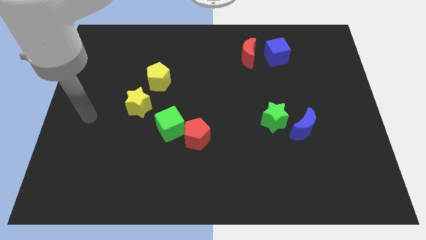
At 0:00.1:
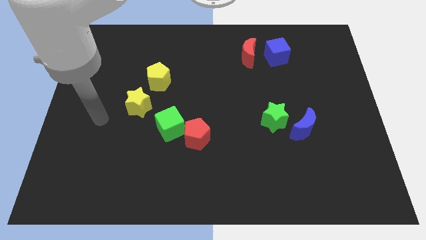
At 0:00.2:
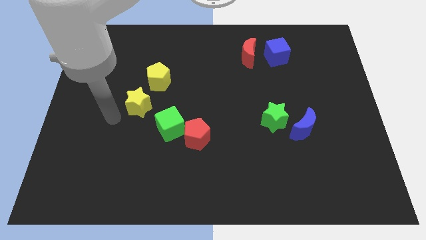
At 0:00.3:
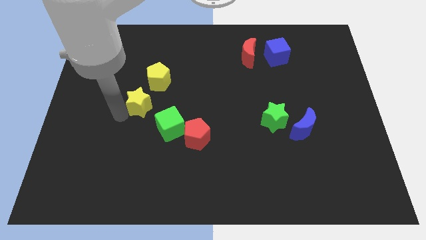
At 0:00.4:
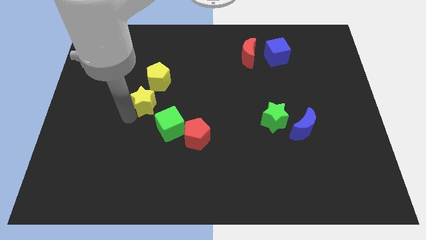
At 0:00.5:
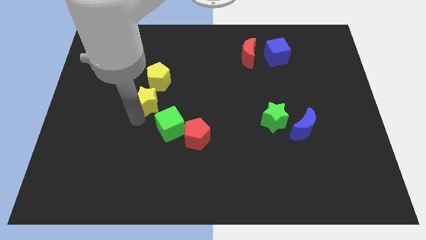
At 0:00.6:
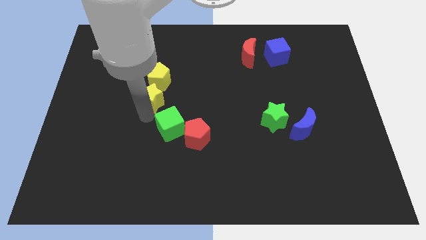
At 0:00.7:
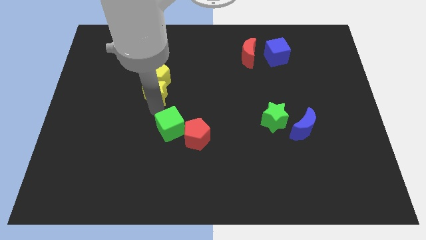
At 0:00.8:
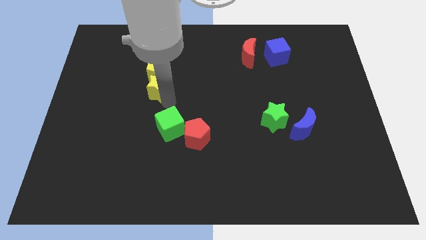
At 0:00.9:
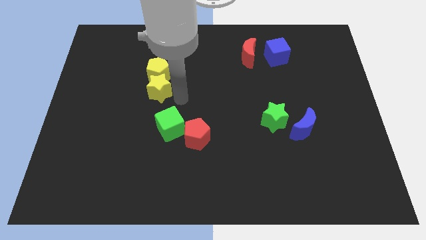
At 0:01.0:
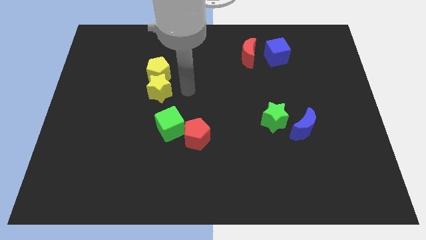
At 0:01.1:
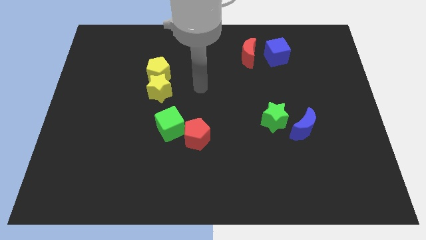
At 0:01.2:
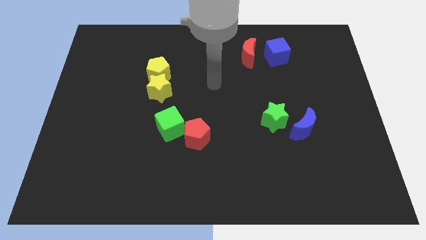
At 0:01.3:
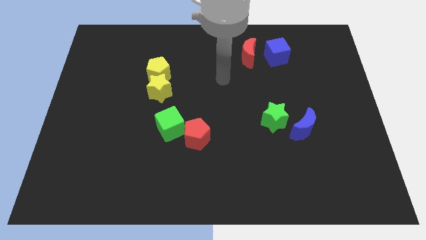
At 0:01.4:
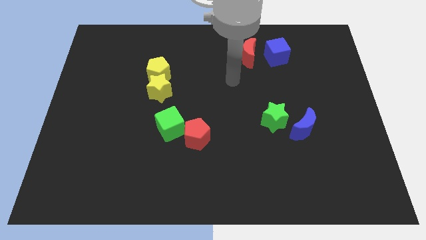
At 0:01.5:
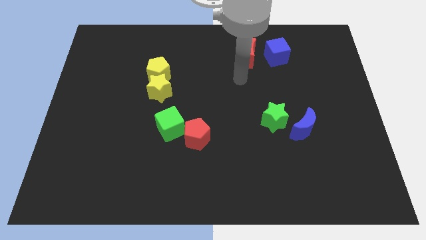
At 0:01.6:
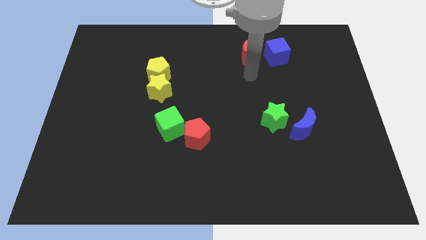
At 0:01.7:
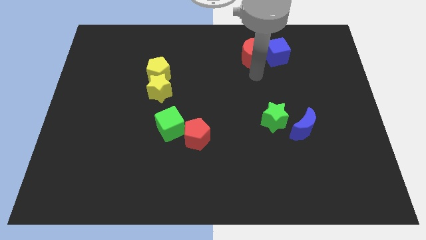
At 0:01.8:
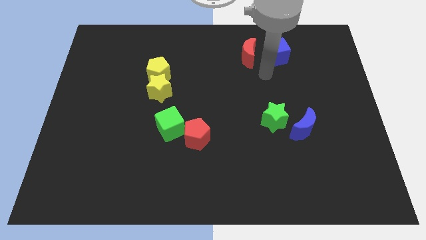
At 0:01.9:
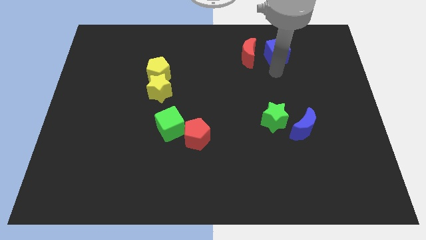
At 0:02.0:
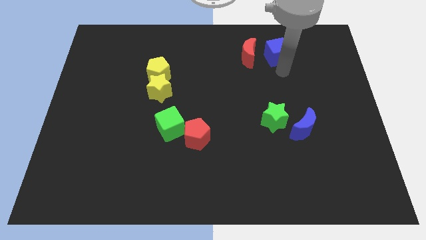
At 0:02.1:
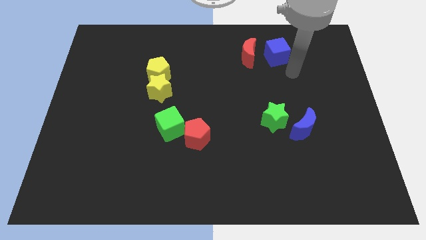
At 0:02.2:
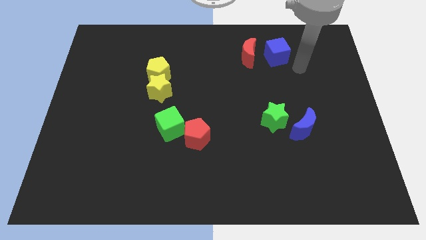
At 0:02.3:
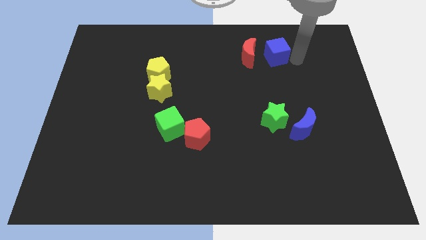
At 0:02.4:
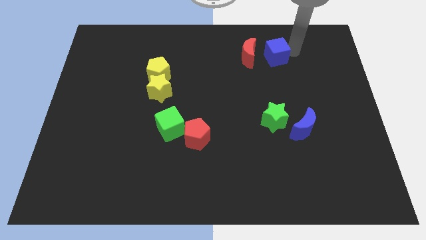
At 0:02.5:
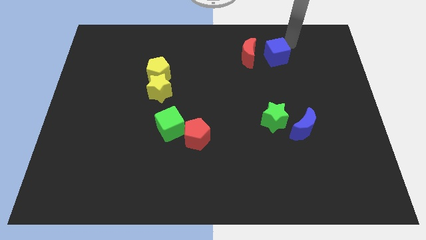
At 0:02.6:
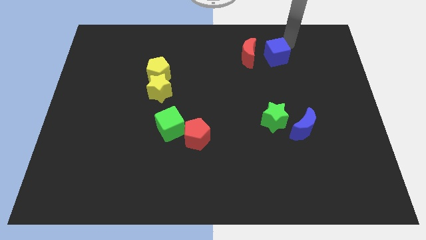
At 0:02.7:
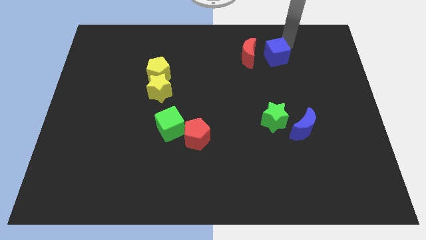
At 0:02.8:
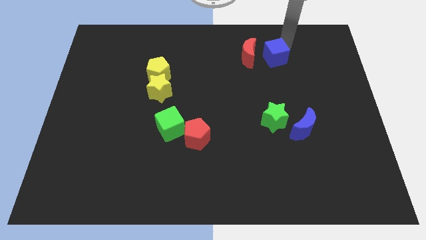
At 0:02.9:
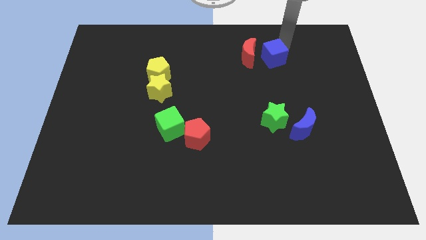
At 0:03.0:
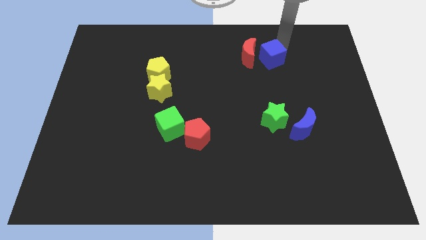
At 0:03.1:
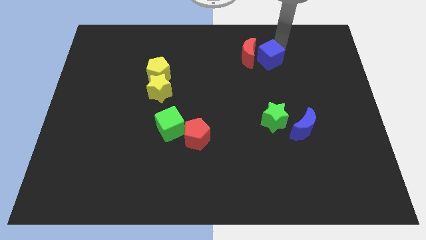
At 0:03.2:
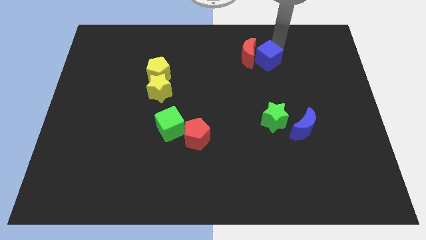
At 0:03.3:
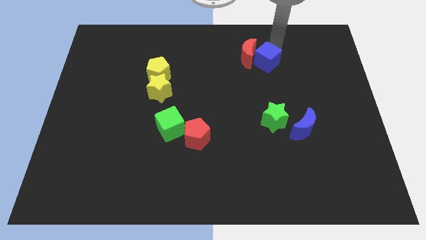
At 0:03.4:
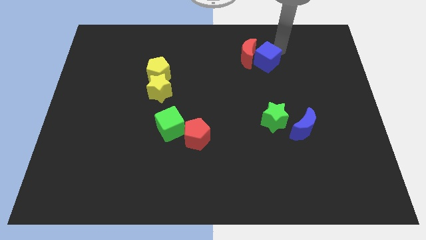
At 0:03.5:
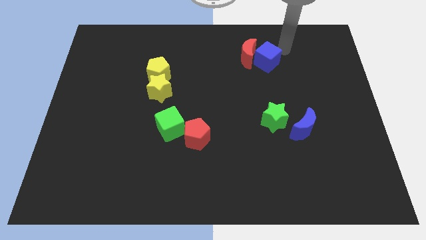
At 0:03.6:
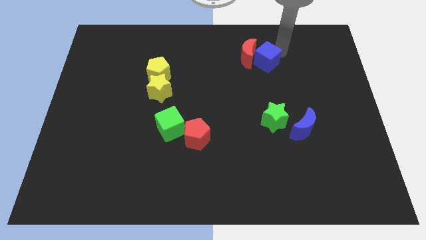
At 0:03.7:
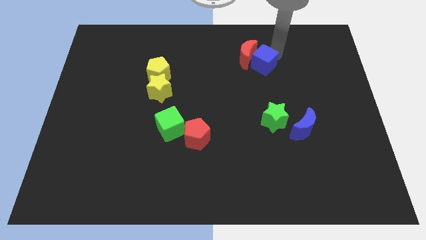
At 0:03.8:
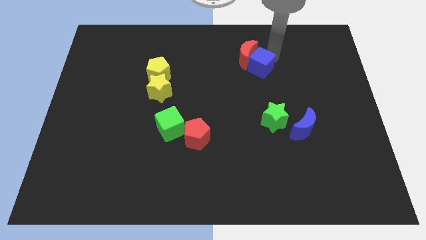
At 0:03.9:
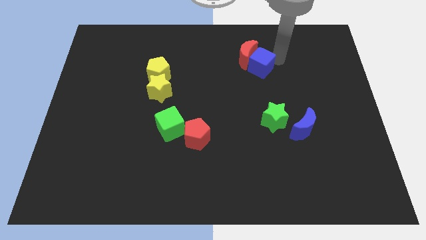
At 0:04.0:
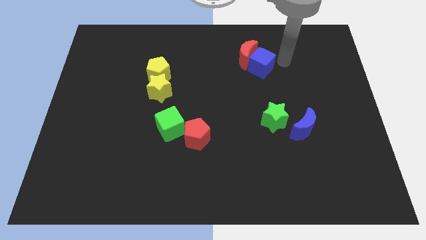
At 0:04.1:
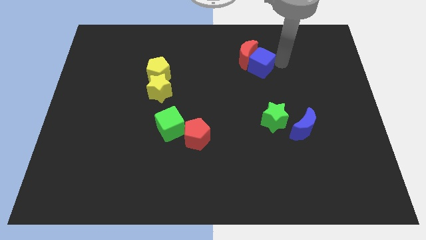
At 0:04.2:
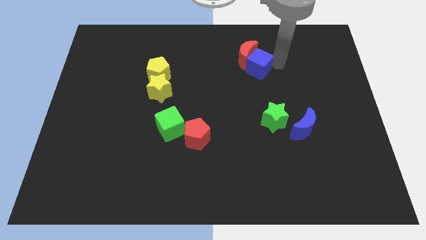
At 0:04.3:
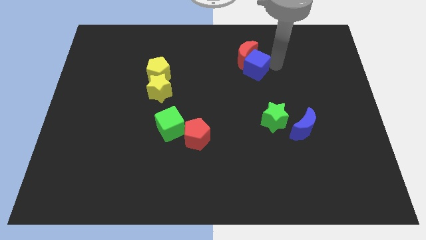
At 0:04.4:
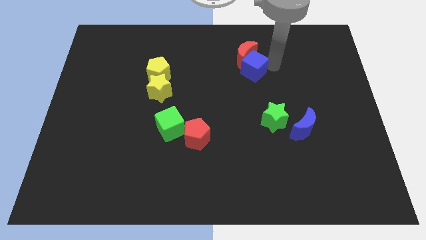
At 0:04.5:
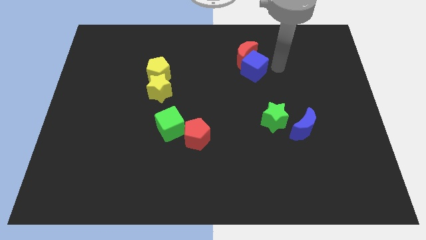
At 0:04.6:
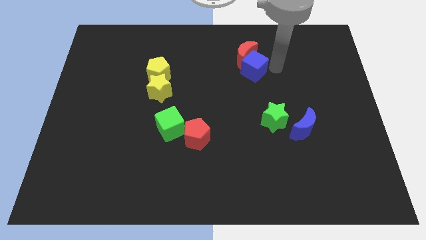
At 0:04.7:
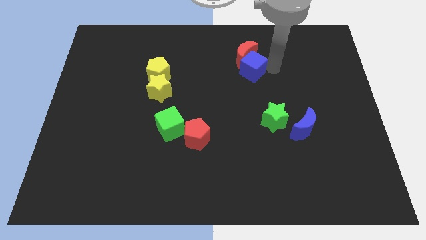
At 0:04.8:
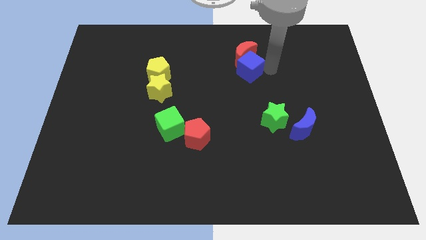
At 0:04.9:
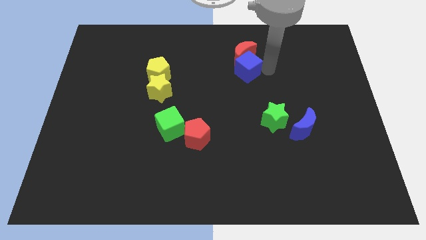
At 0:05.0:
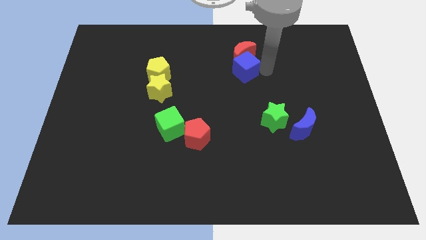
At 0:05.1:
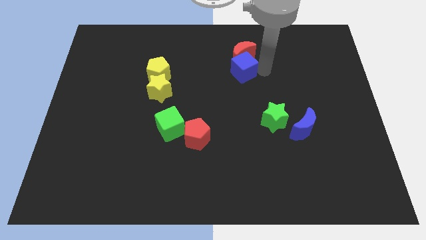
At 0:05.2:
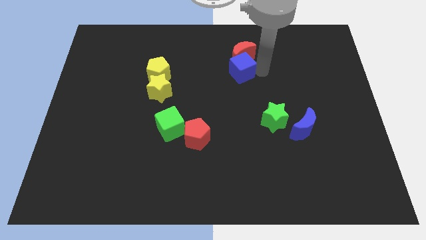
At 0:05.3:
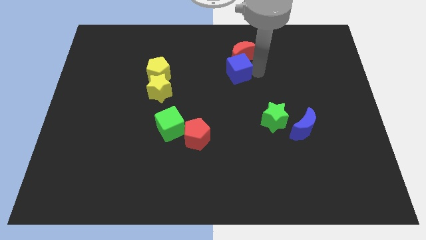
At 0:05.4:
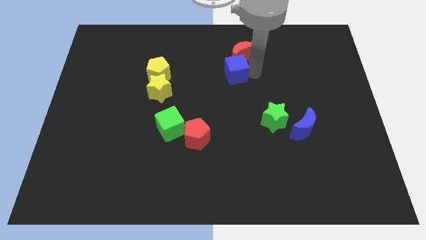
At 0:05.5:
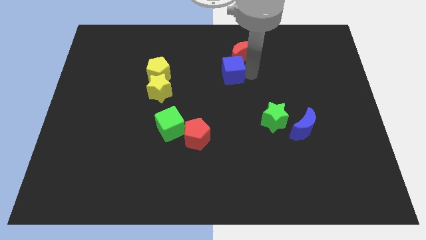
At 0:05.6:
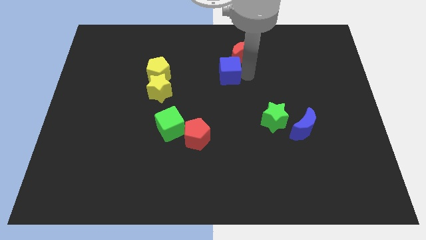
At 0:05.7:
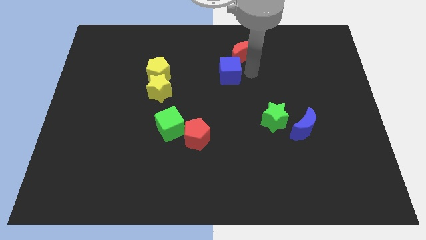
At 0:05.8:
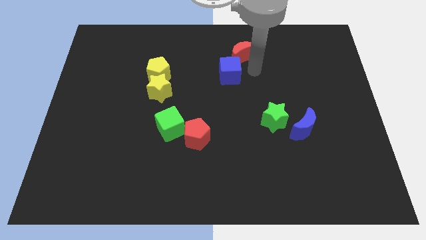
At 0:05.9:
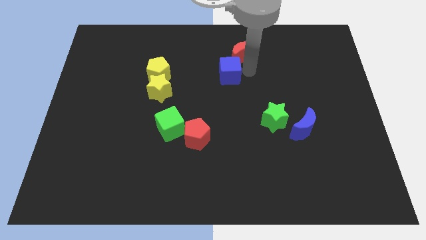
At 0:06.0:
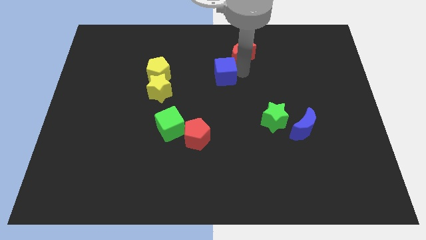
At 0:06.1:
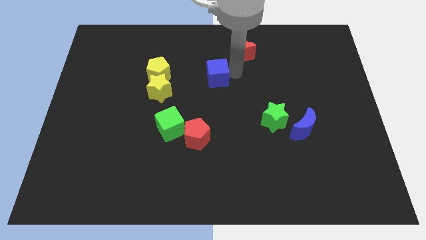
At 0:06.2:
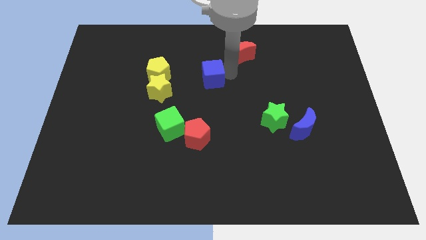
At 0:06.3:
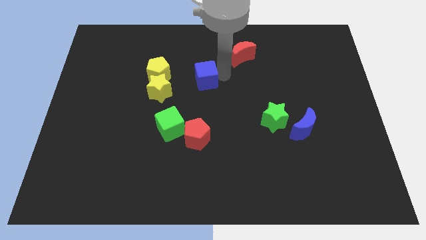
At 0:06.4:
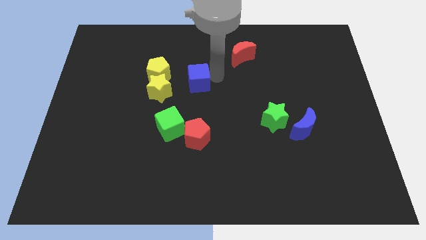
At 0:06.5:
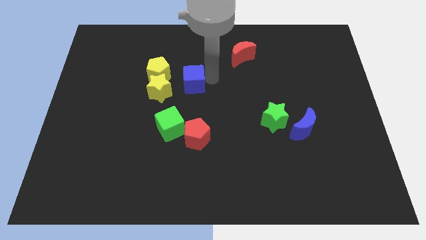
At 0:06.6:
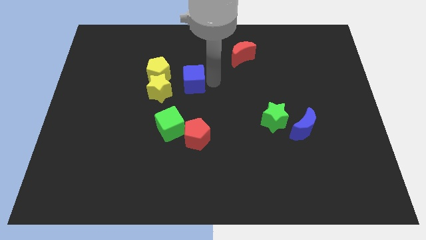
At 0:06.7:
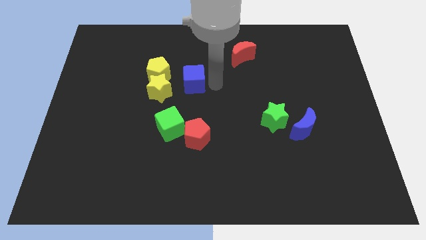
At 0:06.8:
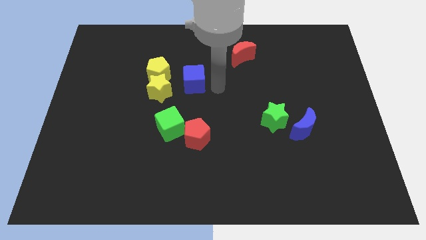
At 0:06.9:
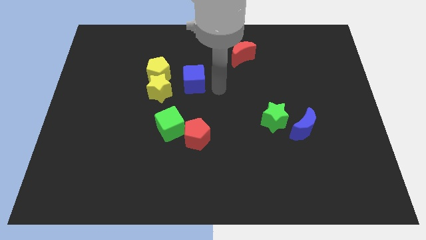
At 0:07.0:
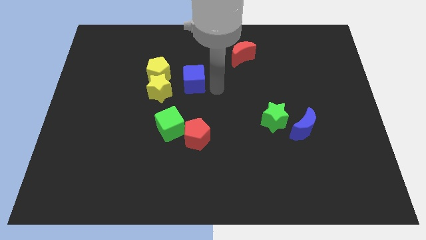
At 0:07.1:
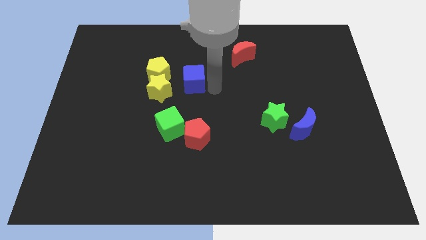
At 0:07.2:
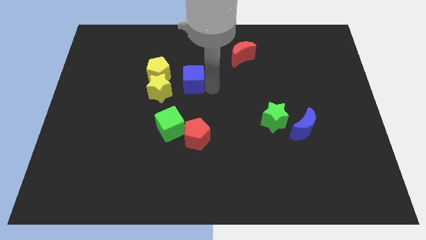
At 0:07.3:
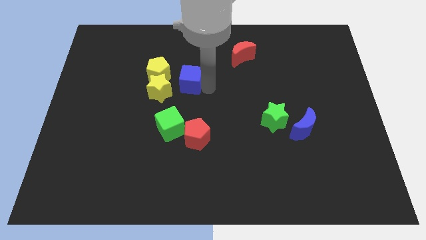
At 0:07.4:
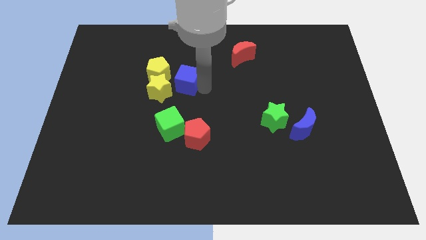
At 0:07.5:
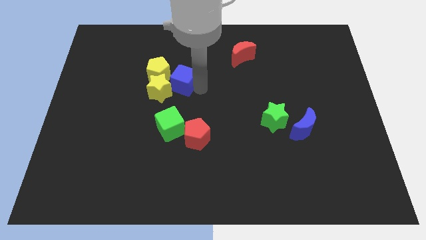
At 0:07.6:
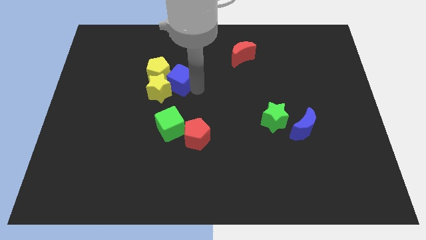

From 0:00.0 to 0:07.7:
slide the blue cube to the yellow pentagon
